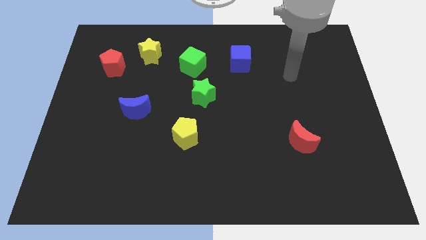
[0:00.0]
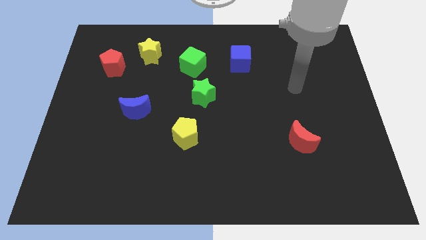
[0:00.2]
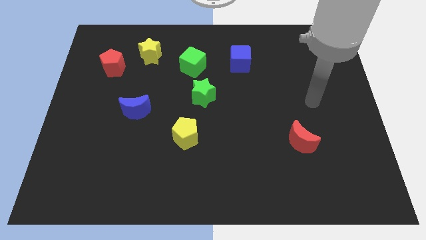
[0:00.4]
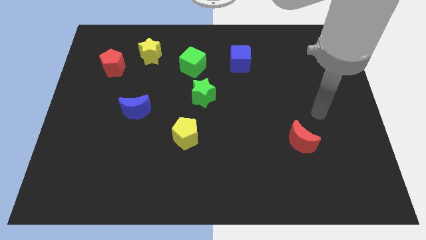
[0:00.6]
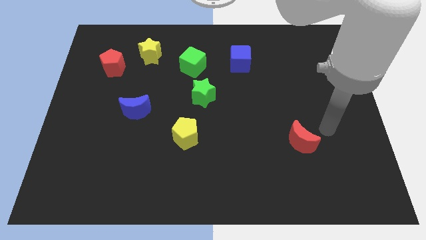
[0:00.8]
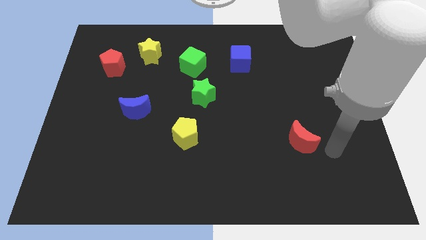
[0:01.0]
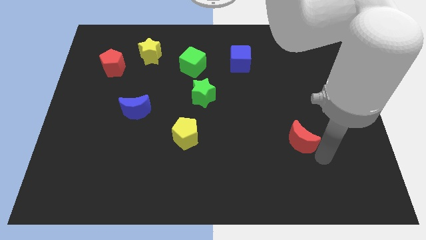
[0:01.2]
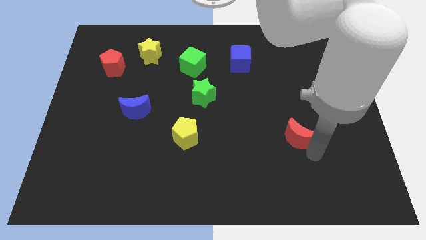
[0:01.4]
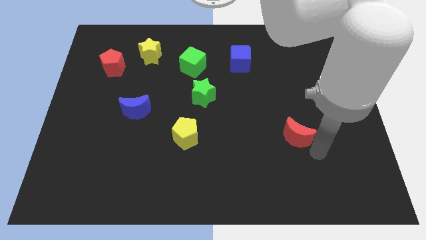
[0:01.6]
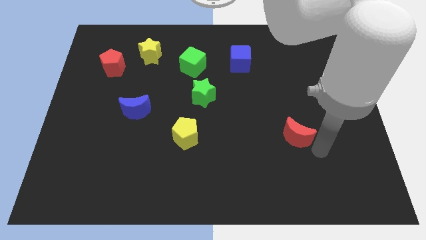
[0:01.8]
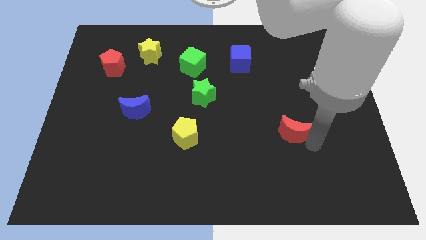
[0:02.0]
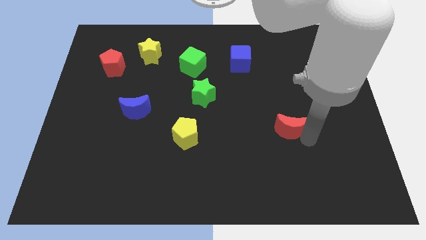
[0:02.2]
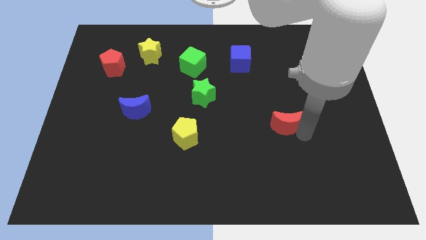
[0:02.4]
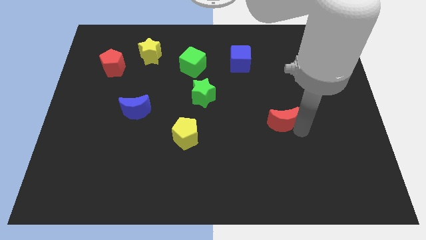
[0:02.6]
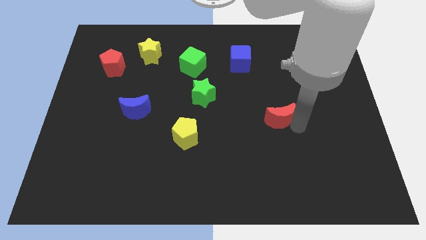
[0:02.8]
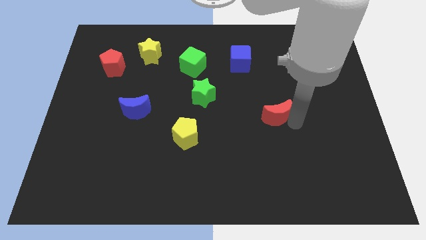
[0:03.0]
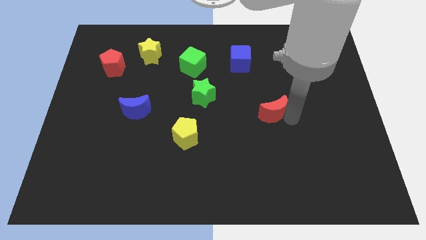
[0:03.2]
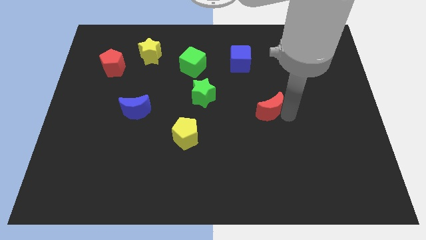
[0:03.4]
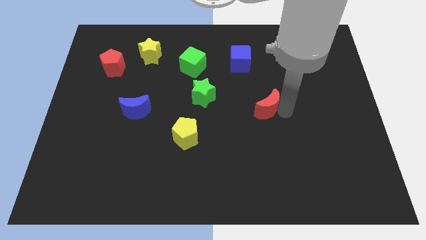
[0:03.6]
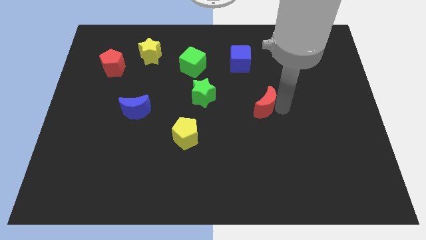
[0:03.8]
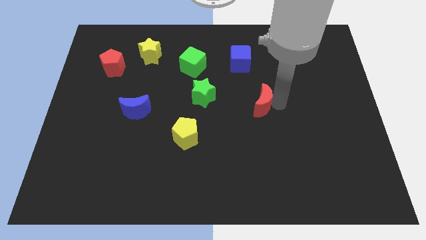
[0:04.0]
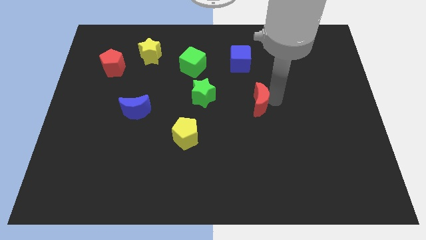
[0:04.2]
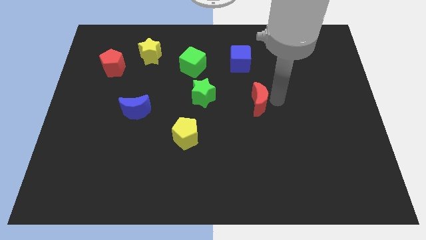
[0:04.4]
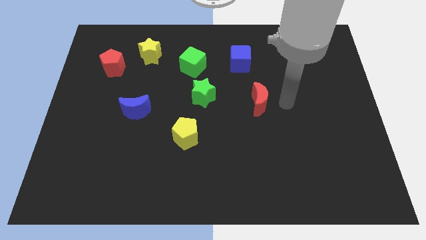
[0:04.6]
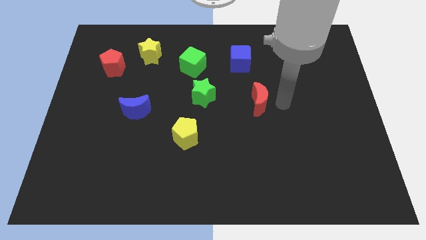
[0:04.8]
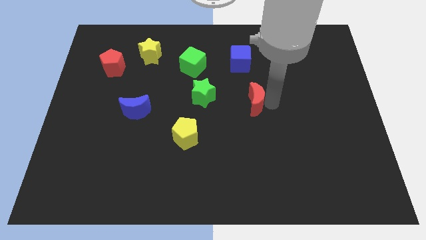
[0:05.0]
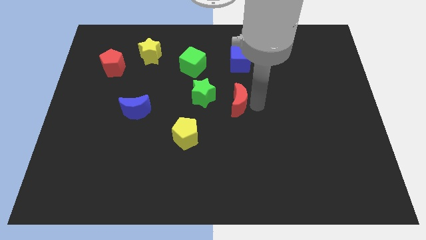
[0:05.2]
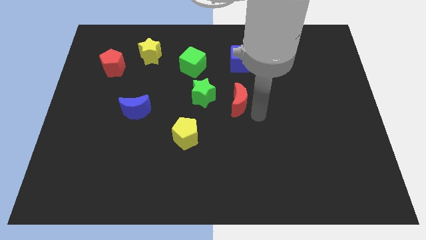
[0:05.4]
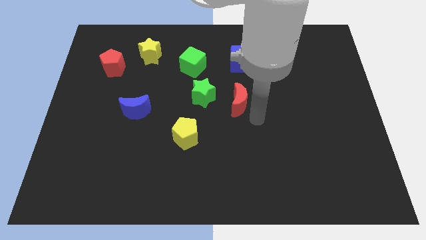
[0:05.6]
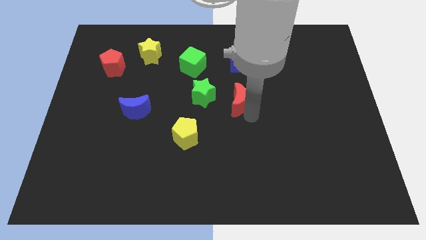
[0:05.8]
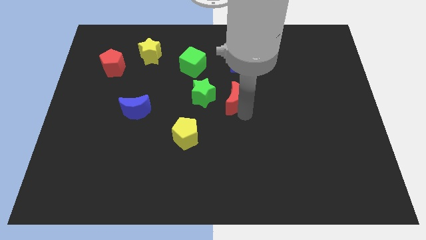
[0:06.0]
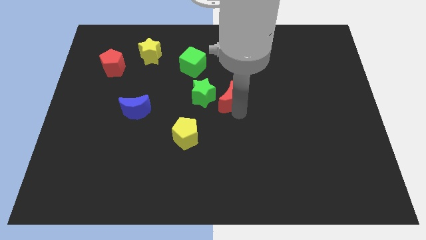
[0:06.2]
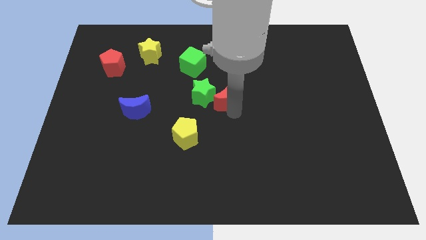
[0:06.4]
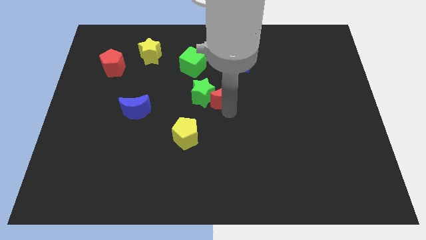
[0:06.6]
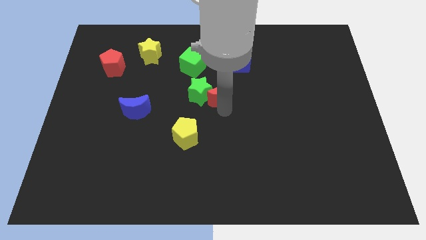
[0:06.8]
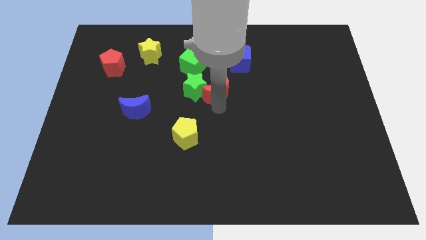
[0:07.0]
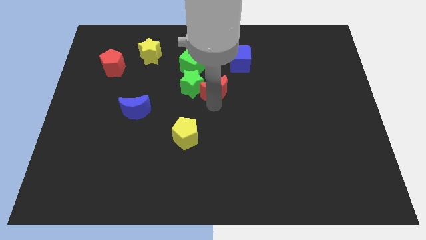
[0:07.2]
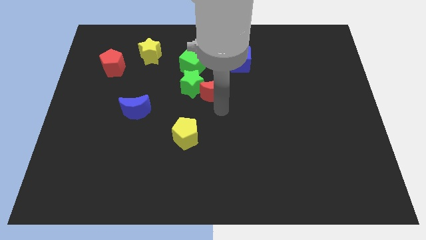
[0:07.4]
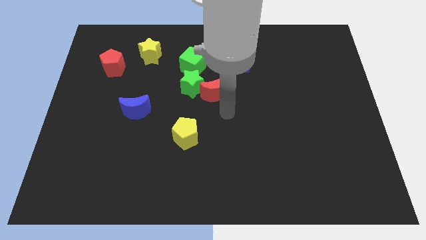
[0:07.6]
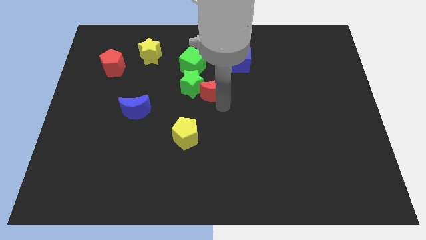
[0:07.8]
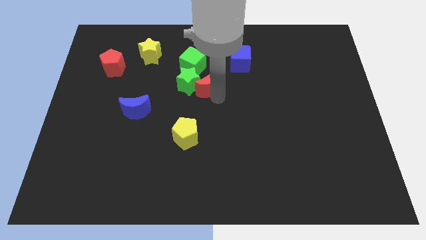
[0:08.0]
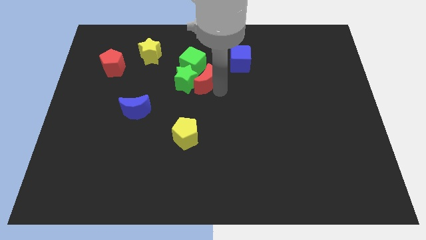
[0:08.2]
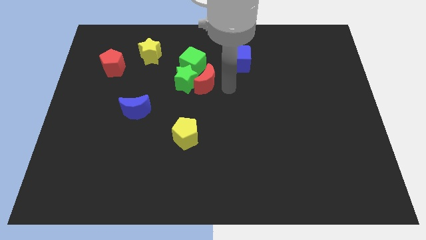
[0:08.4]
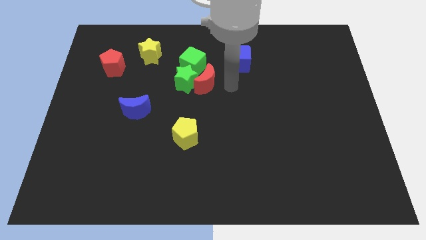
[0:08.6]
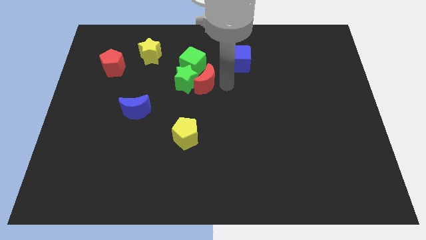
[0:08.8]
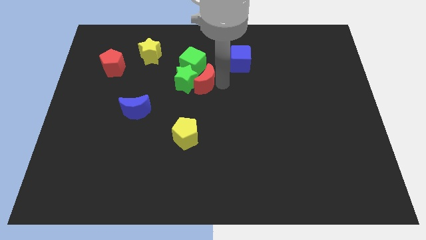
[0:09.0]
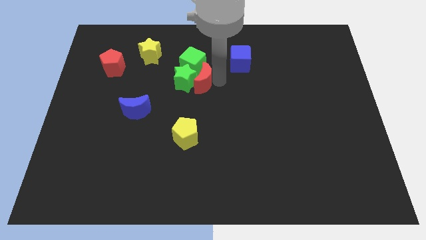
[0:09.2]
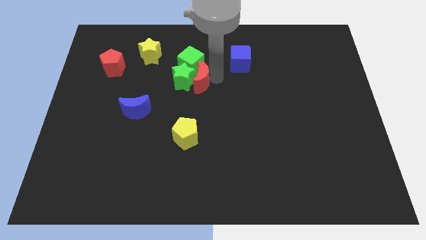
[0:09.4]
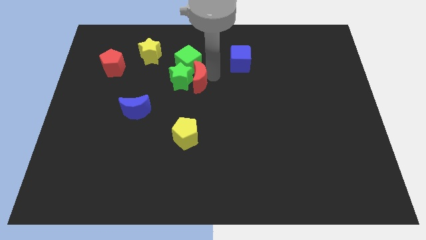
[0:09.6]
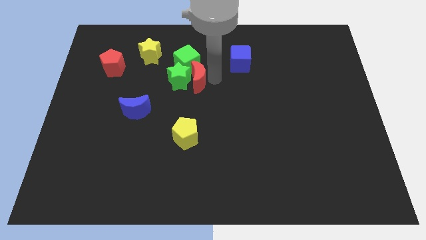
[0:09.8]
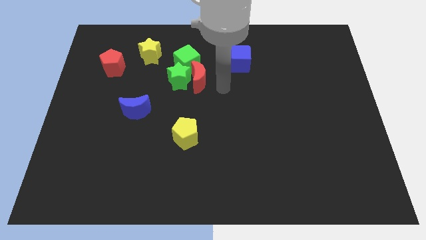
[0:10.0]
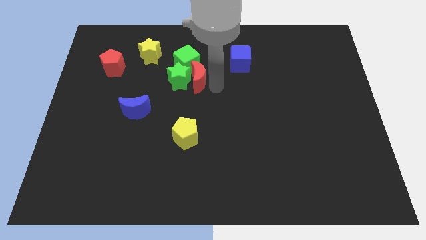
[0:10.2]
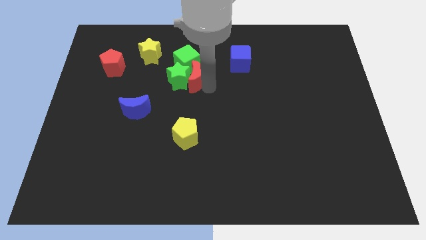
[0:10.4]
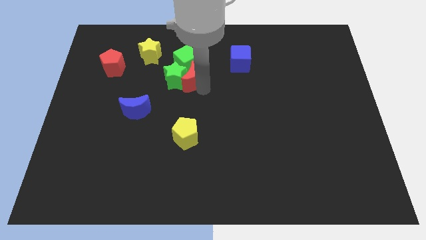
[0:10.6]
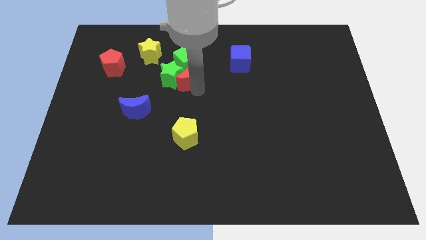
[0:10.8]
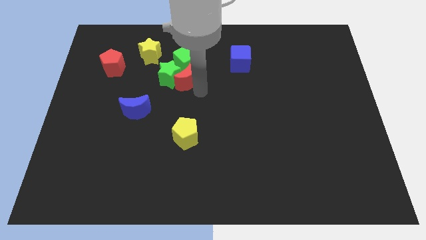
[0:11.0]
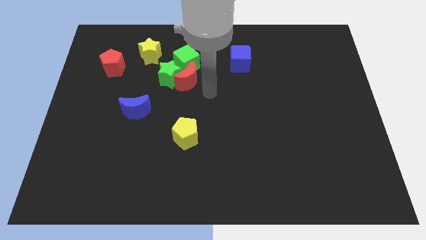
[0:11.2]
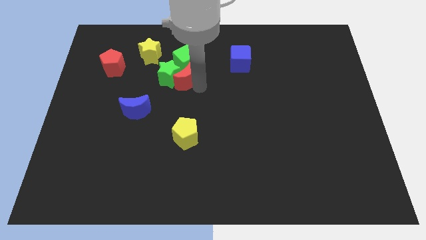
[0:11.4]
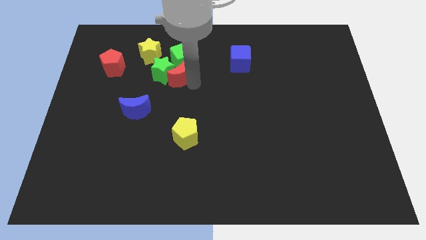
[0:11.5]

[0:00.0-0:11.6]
slide the red moon to the bottom right of the yellow star

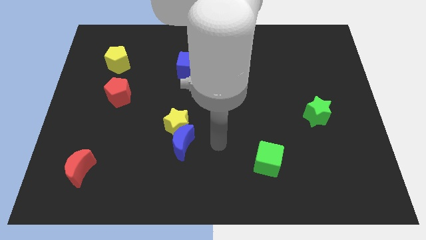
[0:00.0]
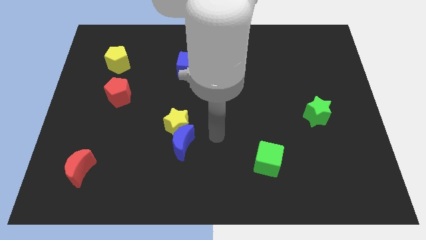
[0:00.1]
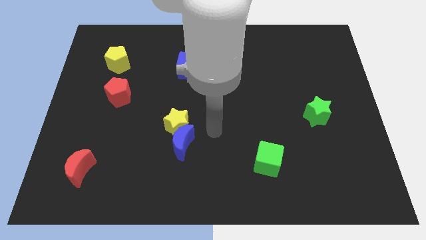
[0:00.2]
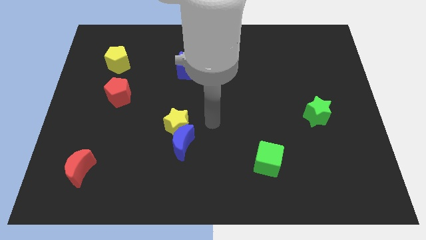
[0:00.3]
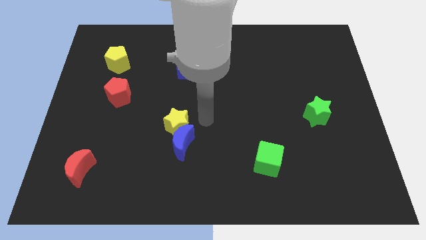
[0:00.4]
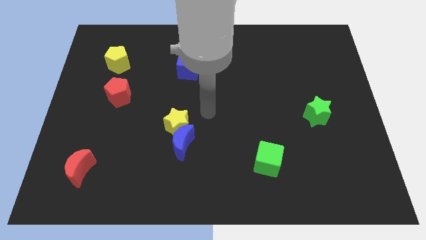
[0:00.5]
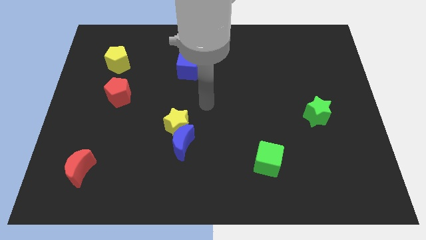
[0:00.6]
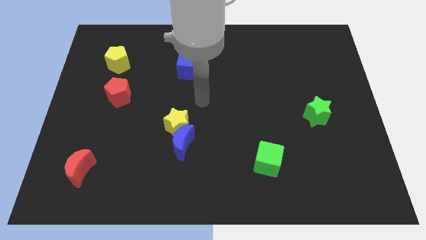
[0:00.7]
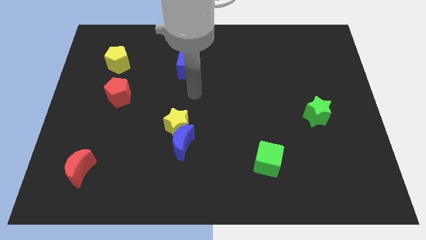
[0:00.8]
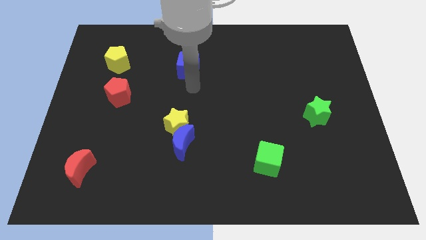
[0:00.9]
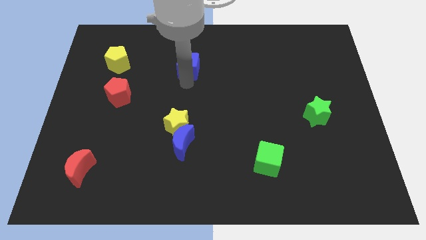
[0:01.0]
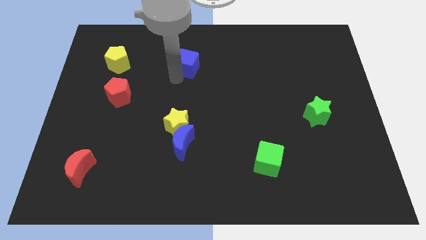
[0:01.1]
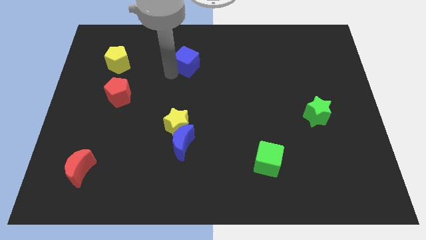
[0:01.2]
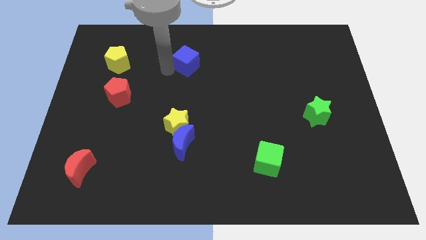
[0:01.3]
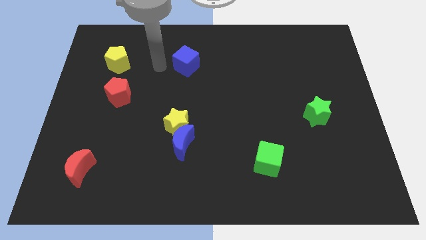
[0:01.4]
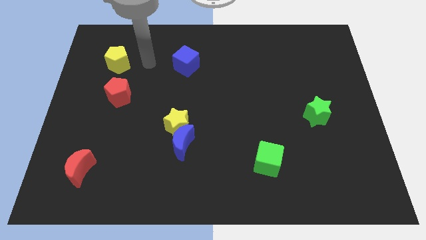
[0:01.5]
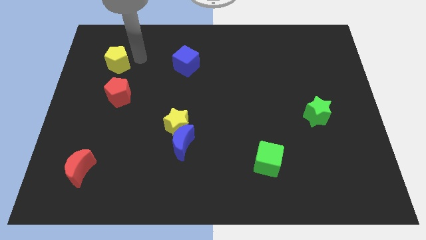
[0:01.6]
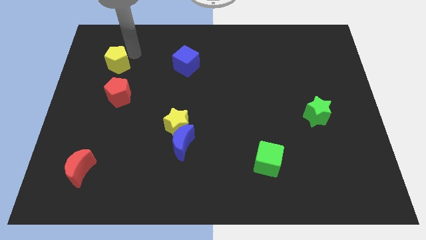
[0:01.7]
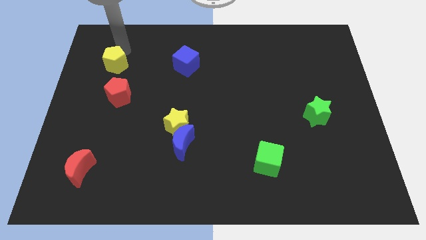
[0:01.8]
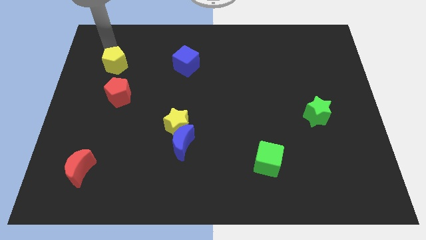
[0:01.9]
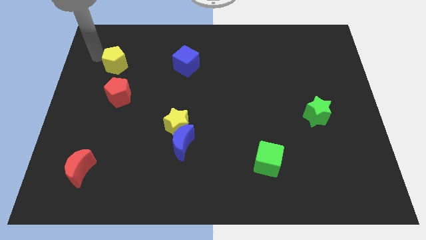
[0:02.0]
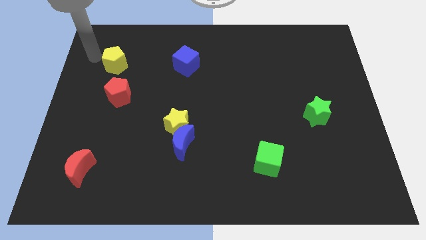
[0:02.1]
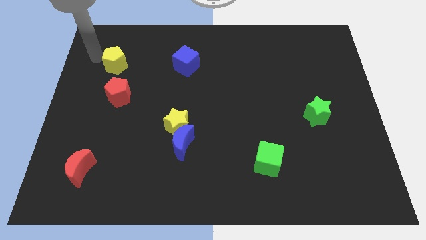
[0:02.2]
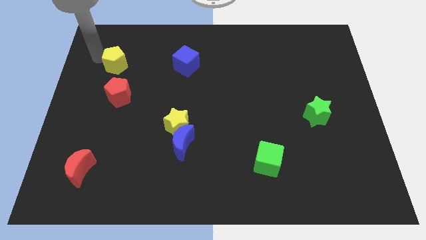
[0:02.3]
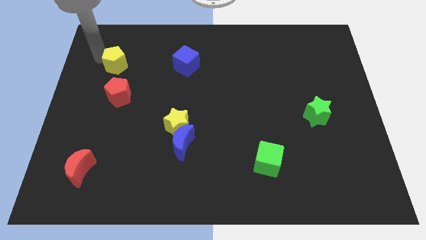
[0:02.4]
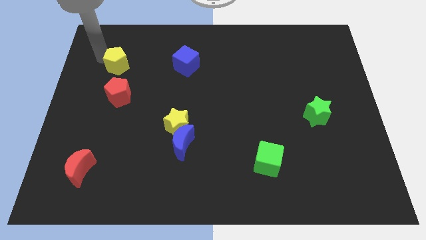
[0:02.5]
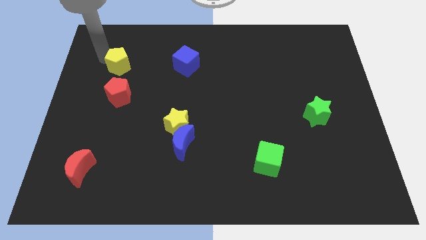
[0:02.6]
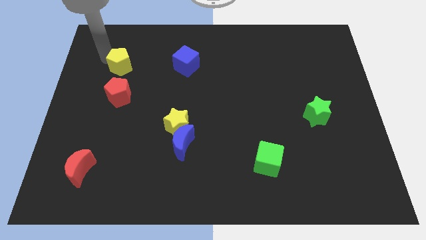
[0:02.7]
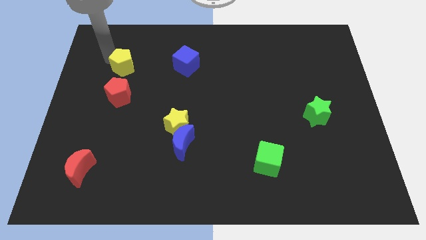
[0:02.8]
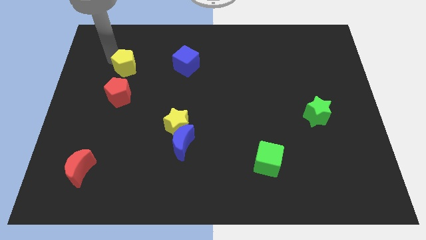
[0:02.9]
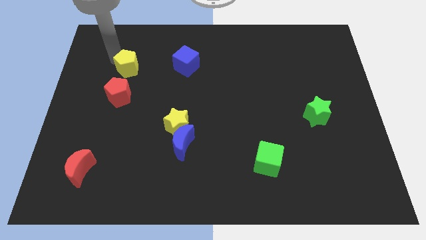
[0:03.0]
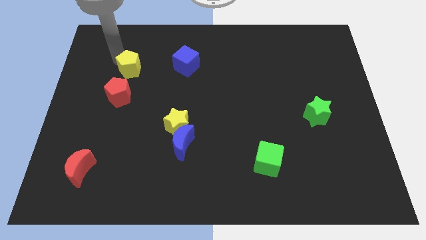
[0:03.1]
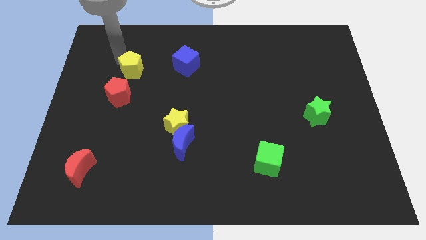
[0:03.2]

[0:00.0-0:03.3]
push the yellow pentagon diagonally up and to the right of the red pentagon
